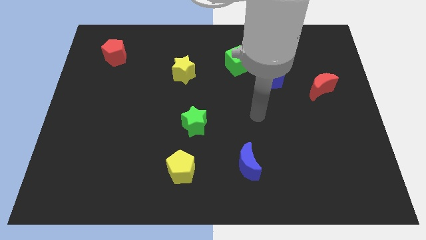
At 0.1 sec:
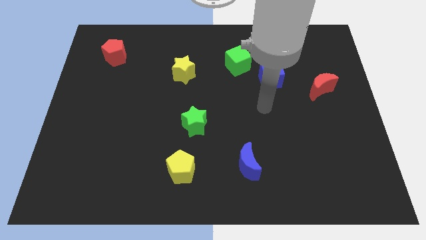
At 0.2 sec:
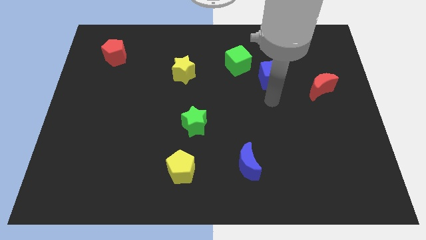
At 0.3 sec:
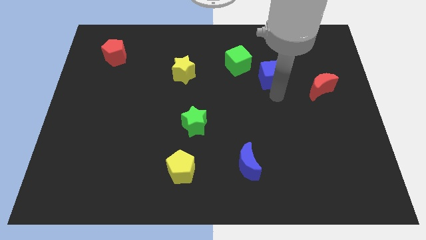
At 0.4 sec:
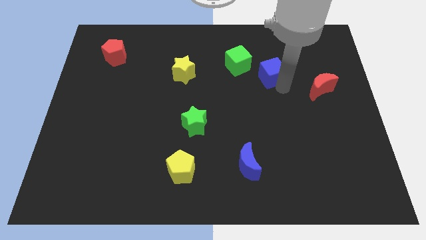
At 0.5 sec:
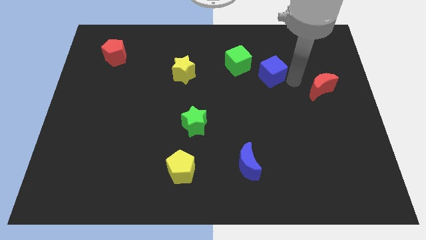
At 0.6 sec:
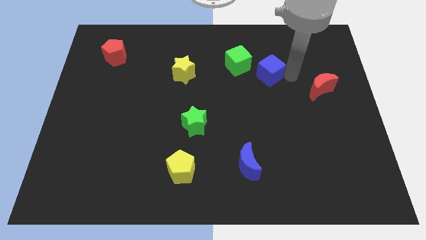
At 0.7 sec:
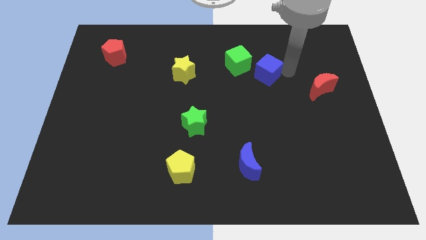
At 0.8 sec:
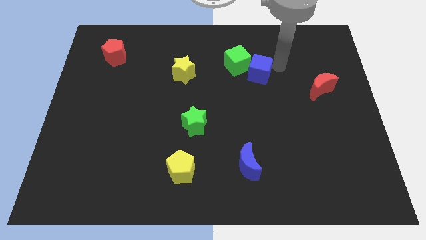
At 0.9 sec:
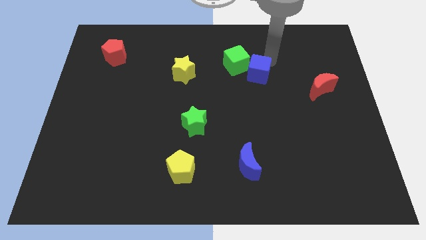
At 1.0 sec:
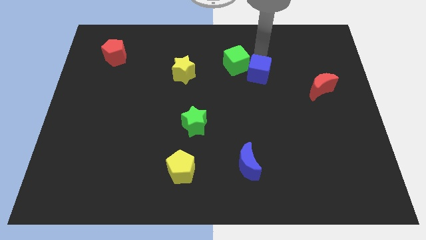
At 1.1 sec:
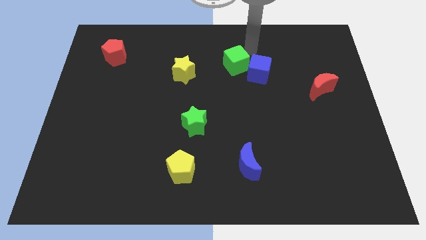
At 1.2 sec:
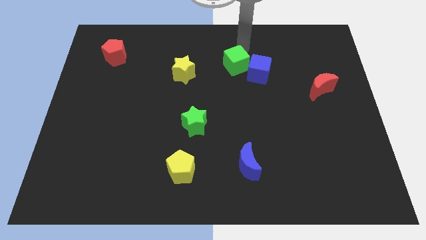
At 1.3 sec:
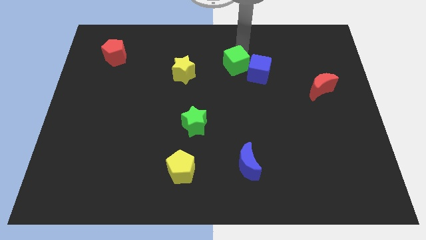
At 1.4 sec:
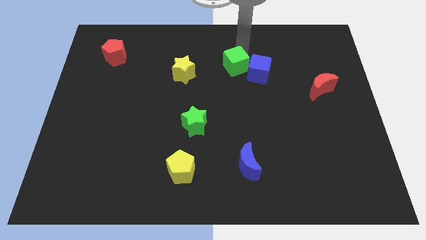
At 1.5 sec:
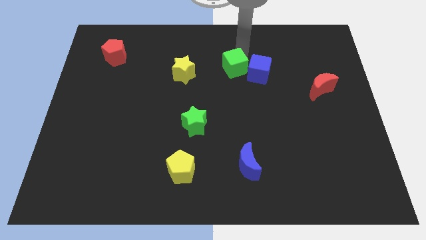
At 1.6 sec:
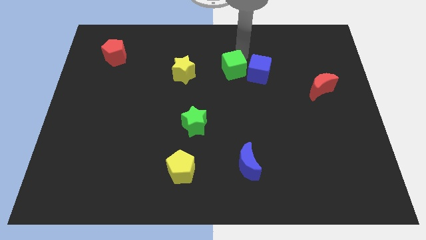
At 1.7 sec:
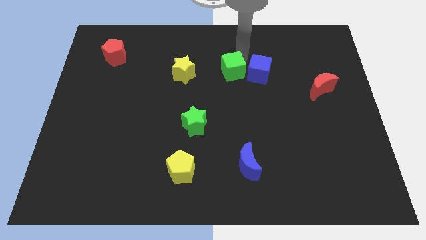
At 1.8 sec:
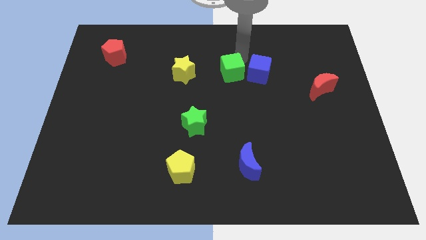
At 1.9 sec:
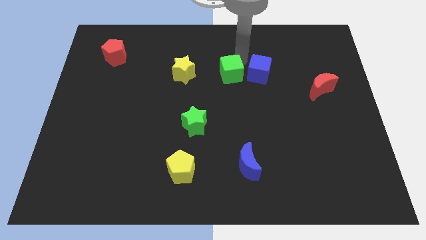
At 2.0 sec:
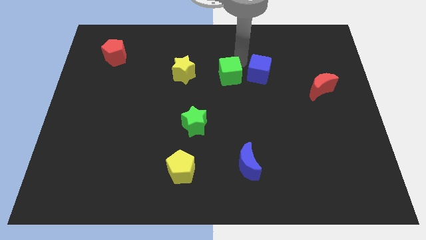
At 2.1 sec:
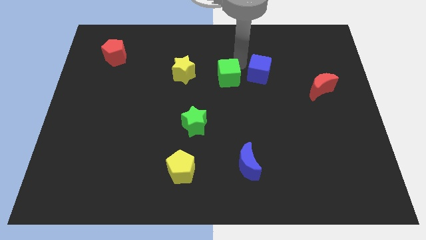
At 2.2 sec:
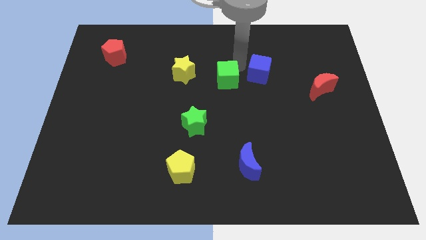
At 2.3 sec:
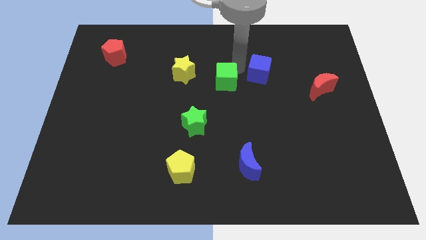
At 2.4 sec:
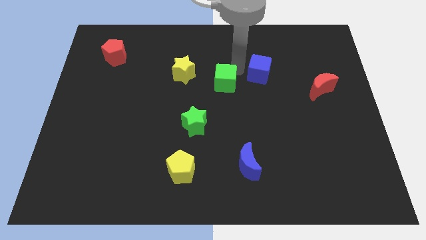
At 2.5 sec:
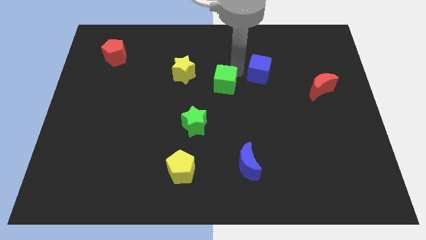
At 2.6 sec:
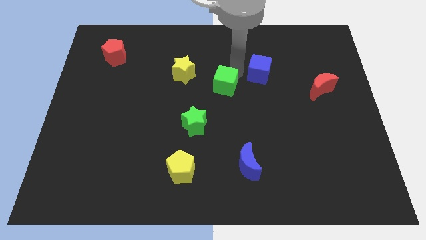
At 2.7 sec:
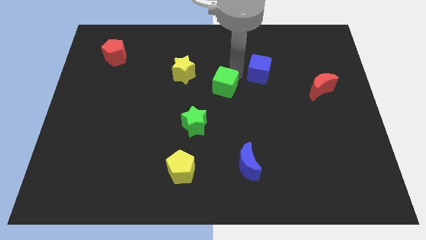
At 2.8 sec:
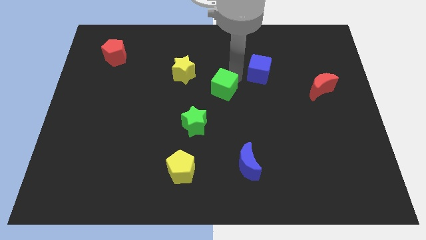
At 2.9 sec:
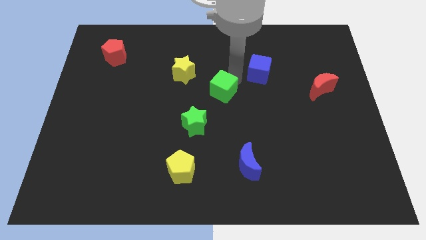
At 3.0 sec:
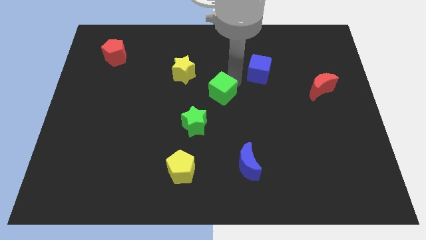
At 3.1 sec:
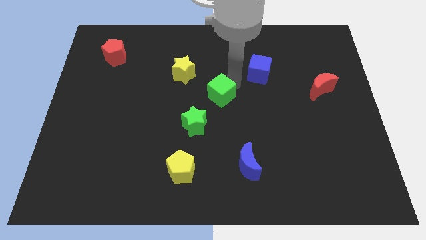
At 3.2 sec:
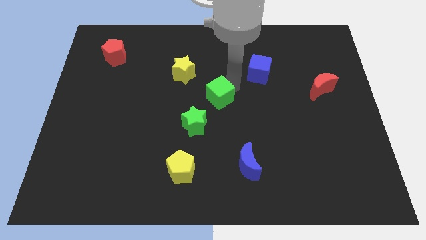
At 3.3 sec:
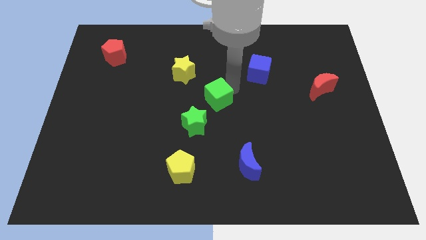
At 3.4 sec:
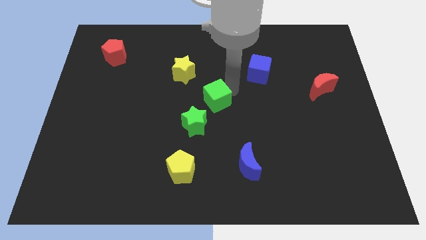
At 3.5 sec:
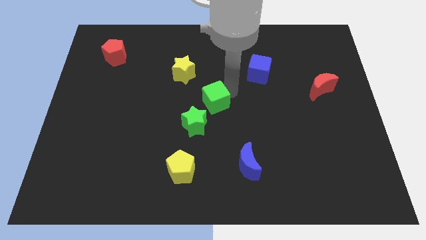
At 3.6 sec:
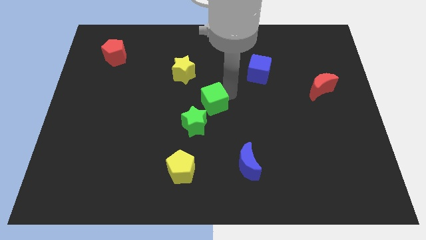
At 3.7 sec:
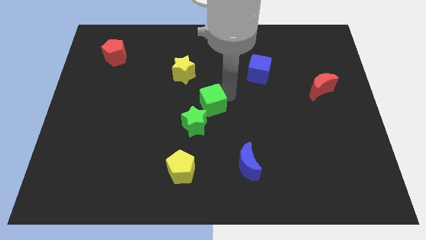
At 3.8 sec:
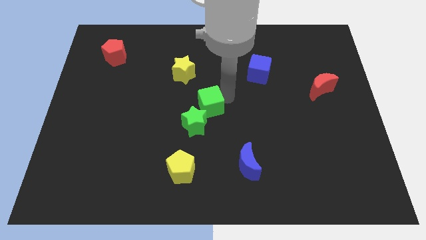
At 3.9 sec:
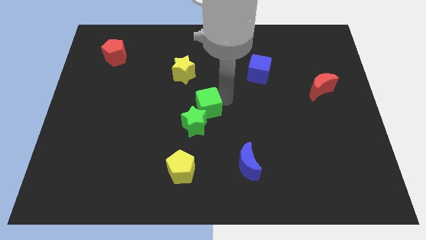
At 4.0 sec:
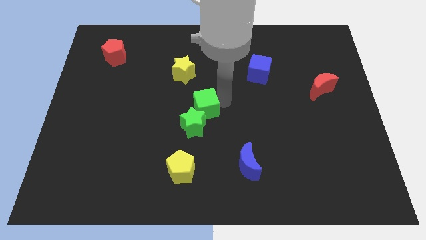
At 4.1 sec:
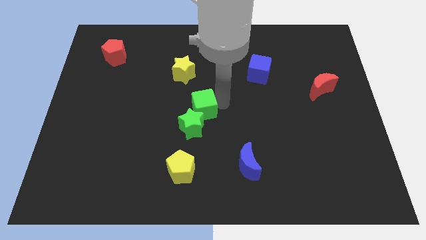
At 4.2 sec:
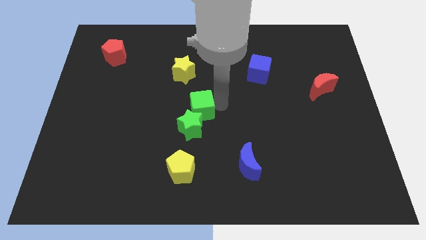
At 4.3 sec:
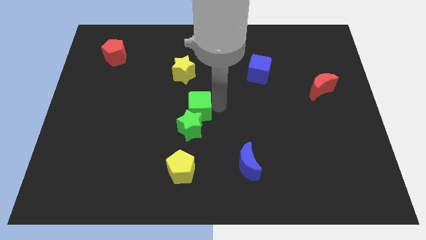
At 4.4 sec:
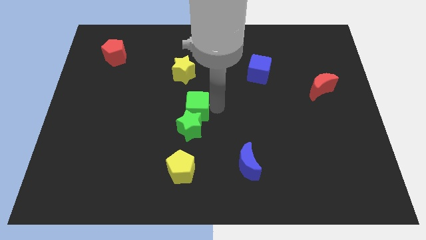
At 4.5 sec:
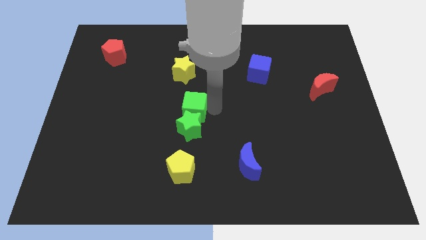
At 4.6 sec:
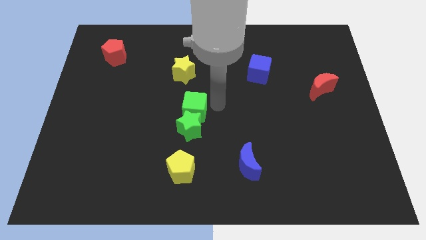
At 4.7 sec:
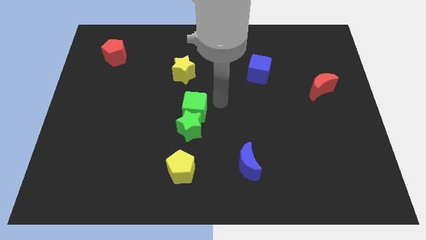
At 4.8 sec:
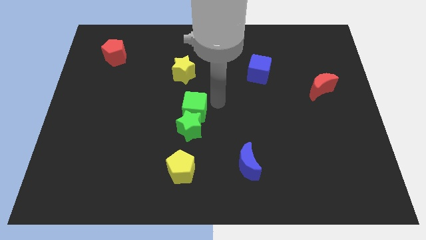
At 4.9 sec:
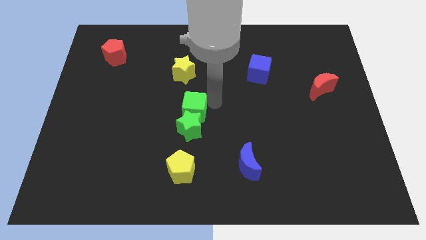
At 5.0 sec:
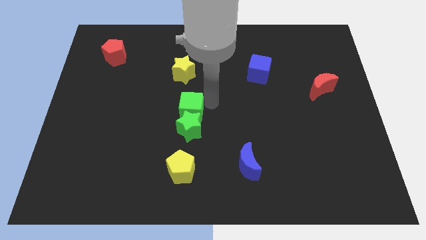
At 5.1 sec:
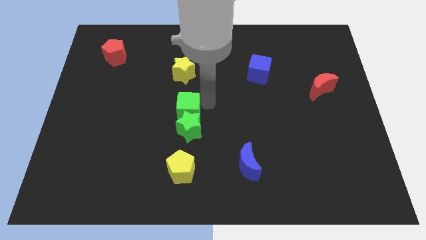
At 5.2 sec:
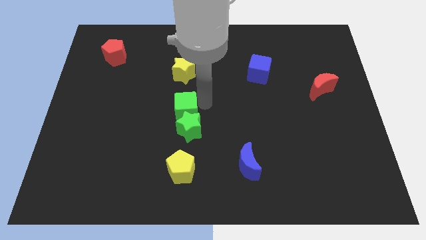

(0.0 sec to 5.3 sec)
push the green cube down and left

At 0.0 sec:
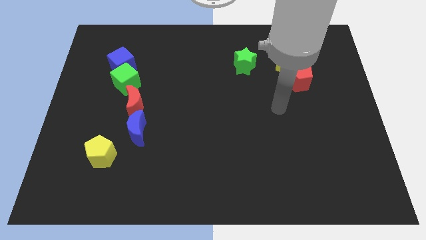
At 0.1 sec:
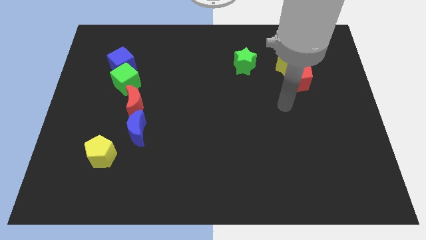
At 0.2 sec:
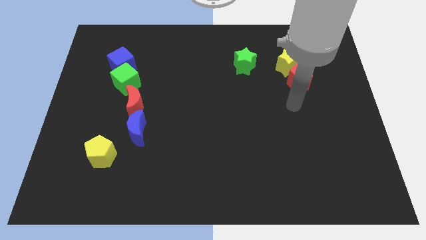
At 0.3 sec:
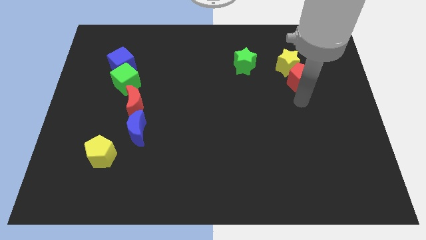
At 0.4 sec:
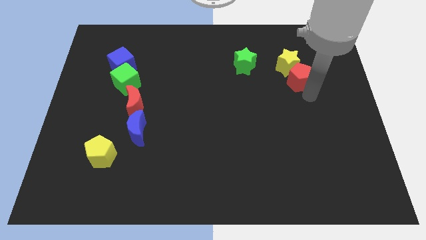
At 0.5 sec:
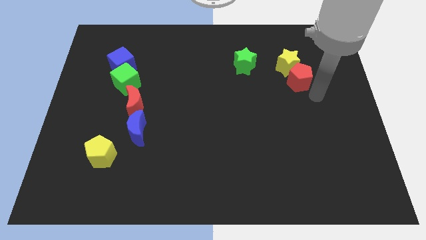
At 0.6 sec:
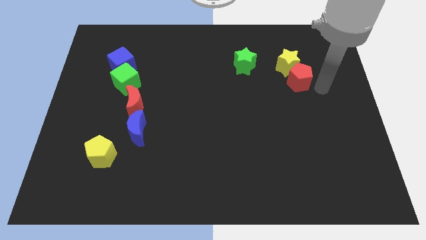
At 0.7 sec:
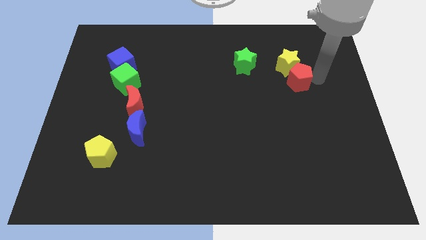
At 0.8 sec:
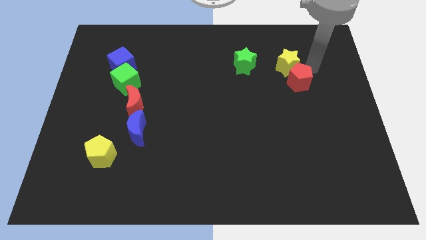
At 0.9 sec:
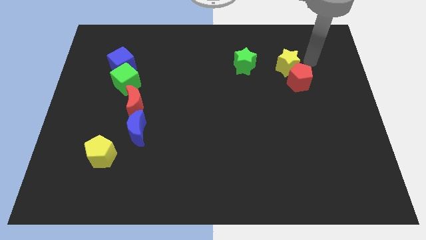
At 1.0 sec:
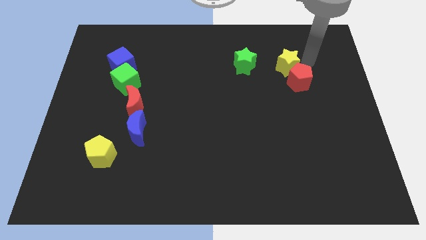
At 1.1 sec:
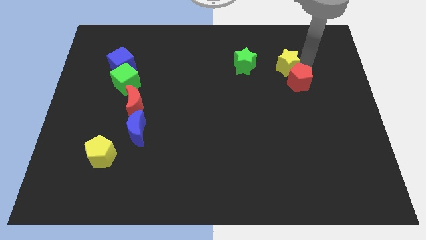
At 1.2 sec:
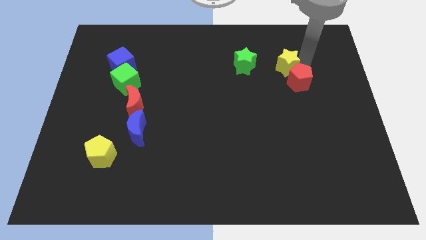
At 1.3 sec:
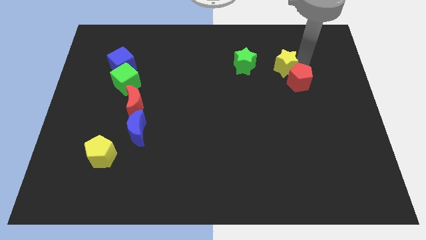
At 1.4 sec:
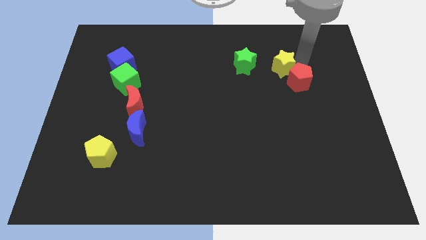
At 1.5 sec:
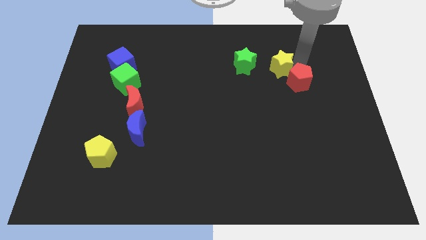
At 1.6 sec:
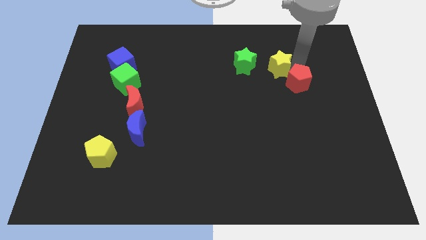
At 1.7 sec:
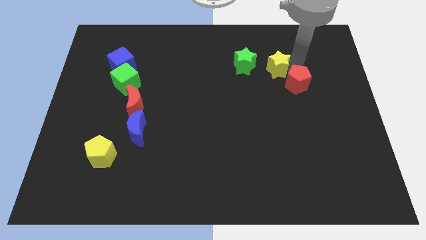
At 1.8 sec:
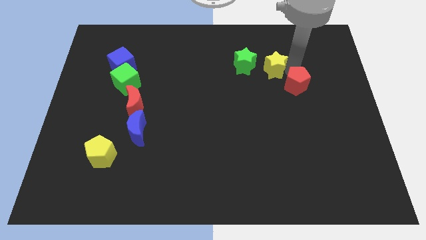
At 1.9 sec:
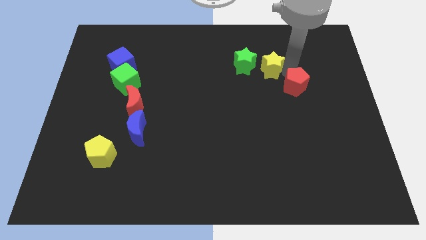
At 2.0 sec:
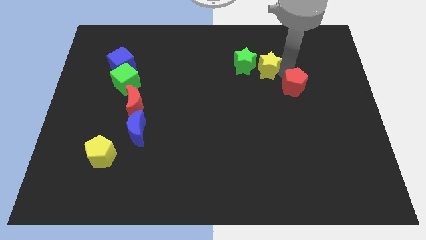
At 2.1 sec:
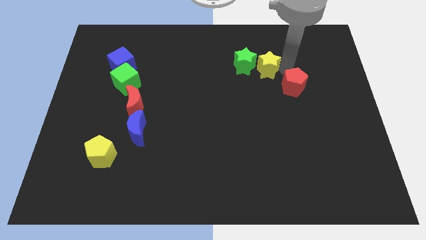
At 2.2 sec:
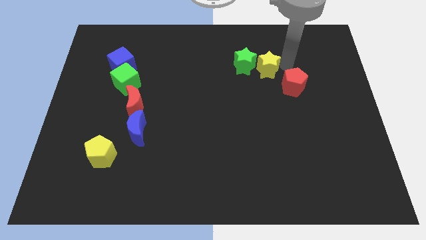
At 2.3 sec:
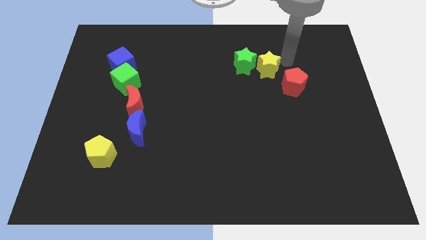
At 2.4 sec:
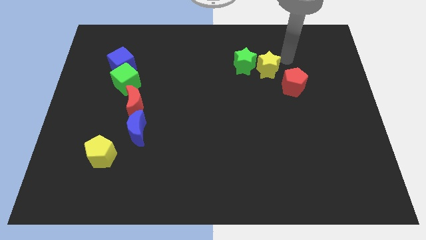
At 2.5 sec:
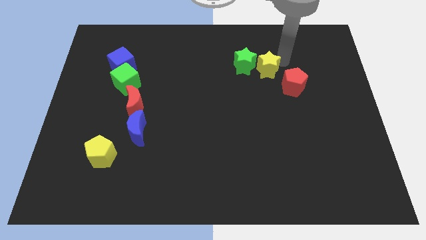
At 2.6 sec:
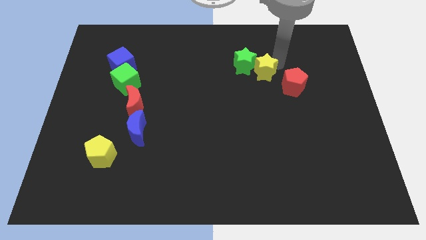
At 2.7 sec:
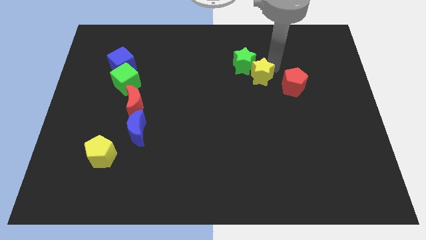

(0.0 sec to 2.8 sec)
push the yellow star left somewhat
